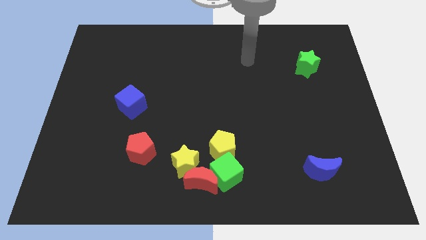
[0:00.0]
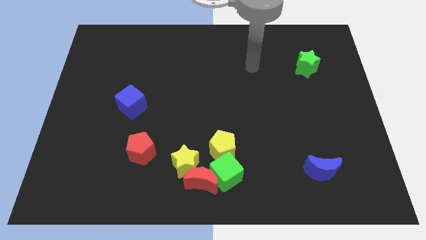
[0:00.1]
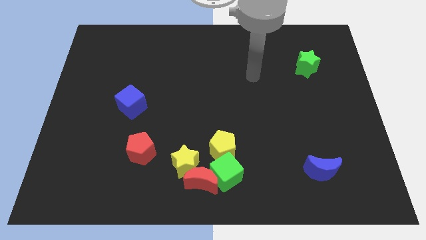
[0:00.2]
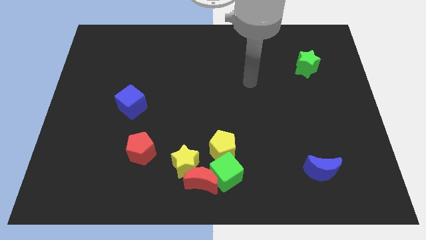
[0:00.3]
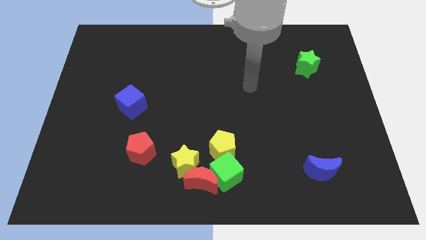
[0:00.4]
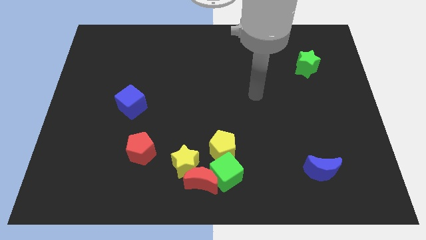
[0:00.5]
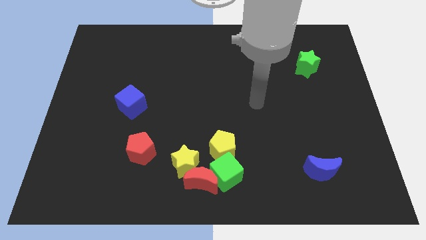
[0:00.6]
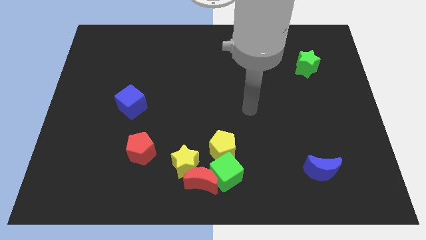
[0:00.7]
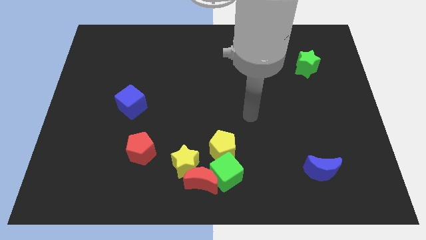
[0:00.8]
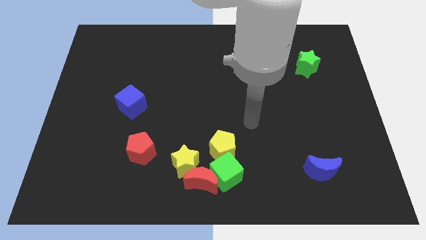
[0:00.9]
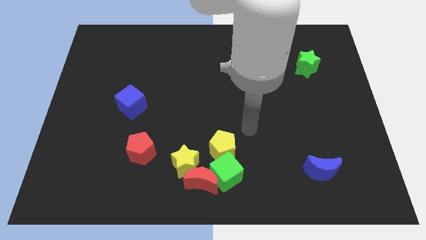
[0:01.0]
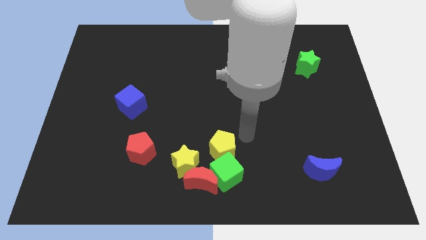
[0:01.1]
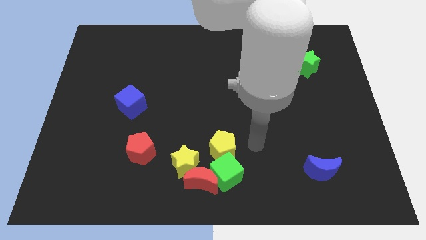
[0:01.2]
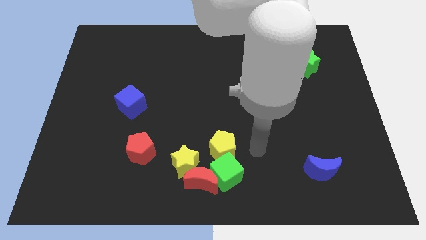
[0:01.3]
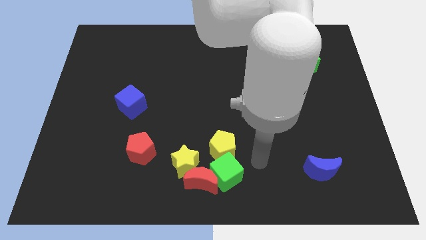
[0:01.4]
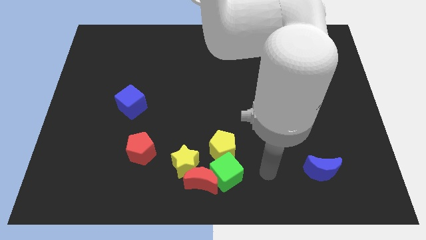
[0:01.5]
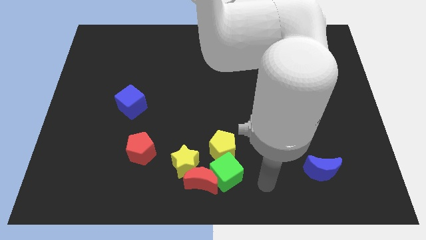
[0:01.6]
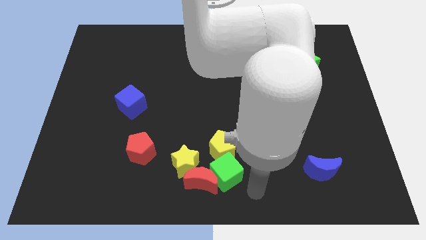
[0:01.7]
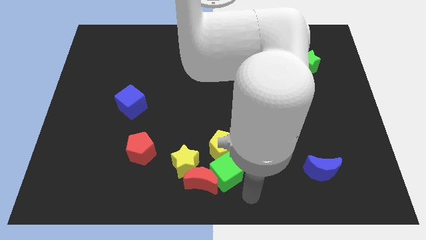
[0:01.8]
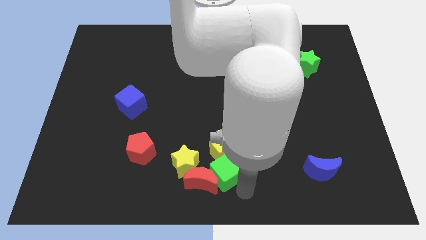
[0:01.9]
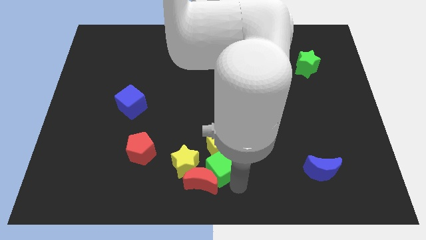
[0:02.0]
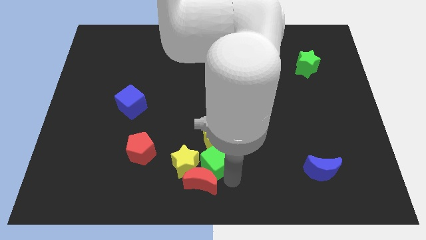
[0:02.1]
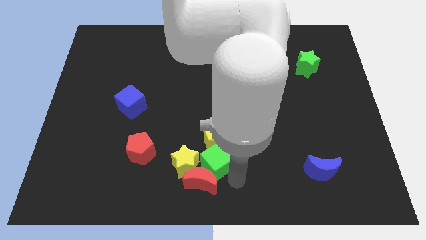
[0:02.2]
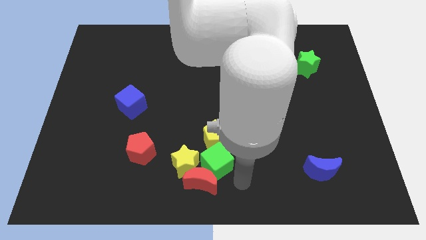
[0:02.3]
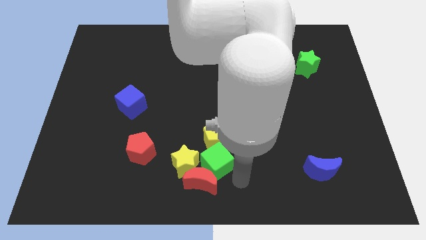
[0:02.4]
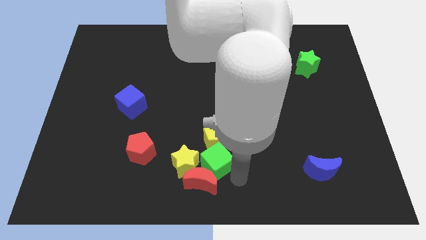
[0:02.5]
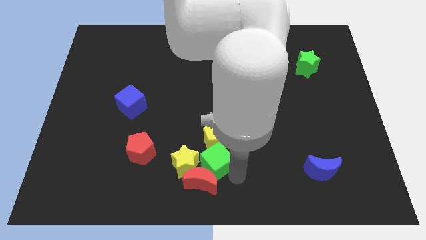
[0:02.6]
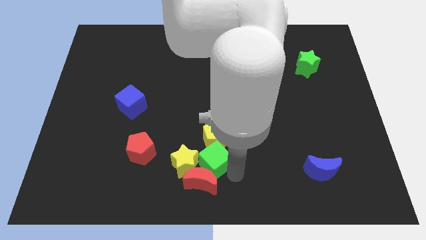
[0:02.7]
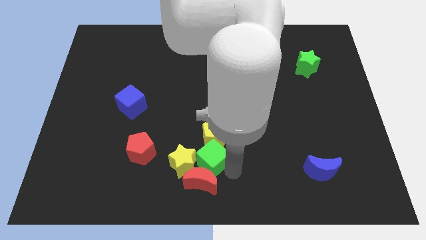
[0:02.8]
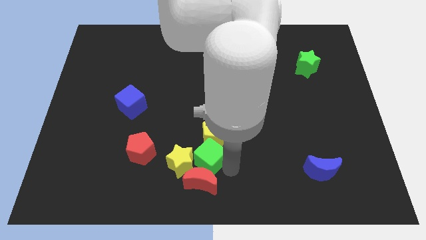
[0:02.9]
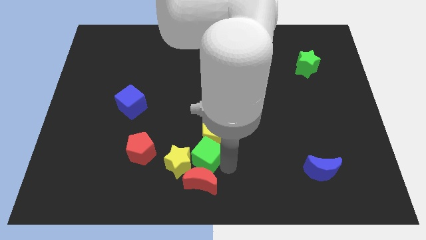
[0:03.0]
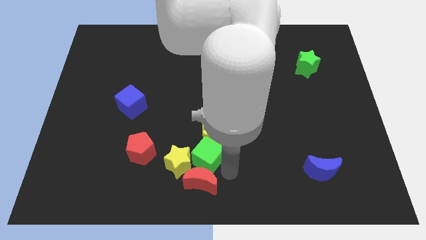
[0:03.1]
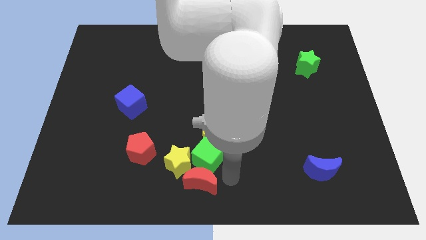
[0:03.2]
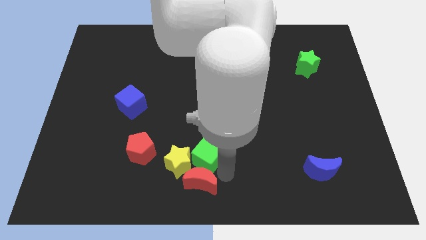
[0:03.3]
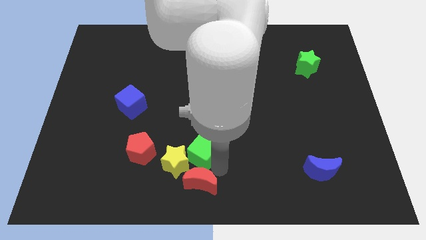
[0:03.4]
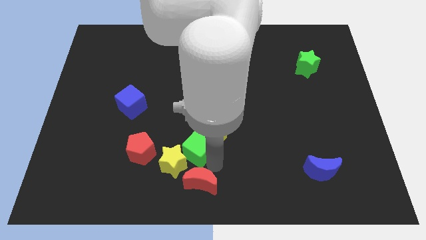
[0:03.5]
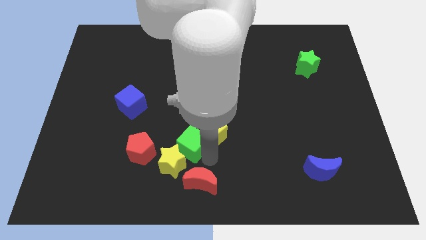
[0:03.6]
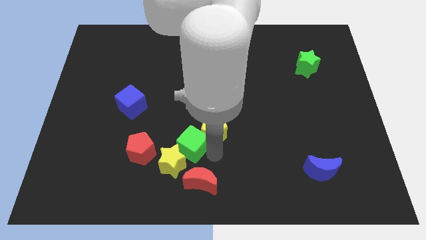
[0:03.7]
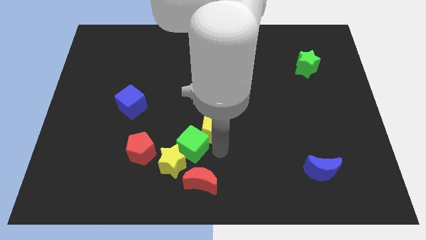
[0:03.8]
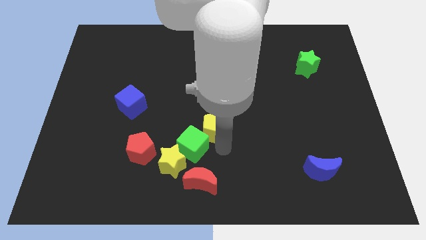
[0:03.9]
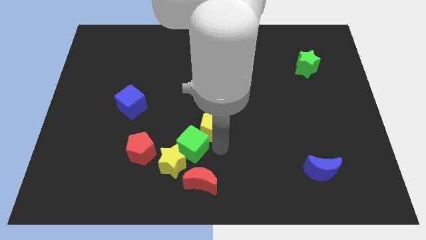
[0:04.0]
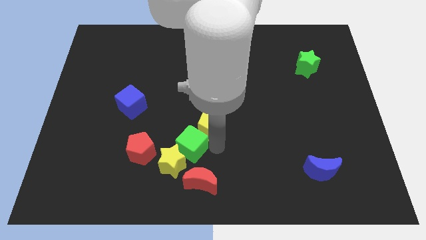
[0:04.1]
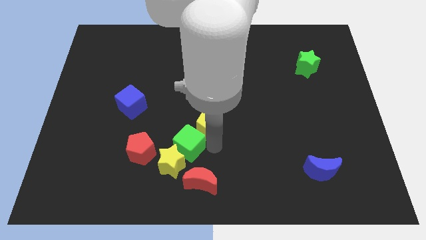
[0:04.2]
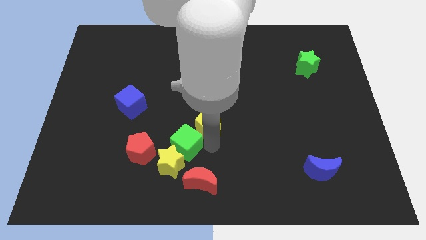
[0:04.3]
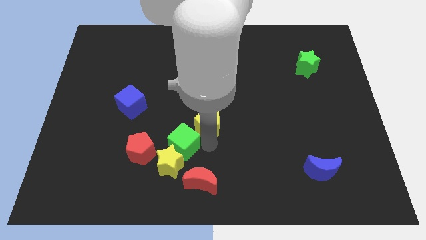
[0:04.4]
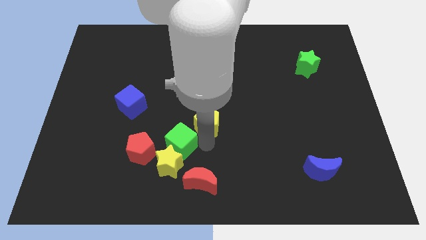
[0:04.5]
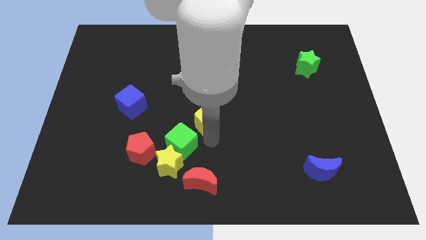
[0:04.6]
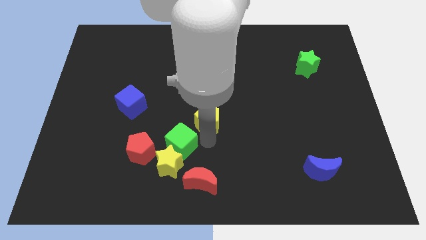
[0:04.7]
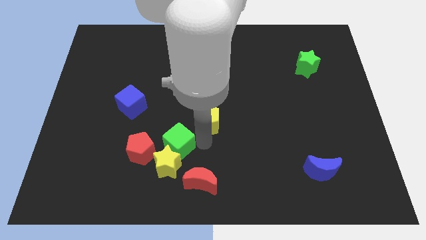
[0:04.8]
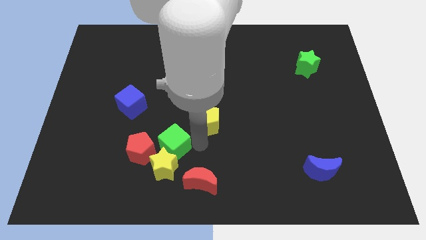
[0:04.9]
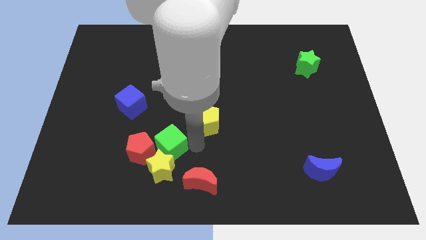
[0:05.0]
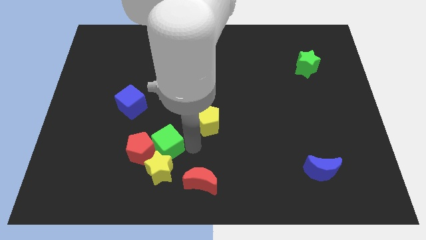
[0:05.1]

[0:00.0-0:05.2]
put the green cube towards the red pentagon

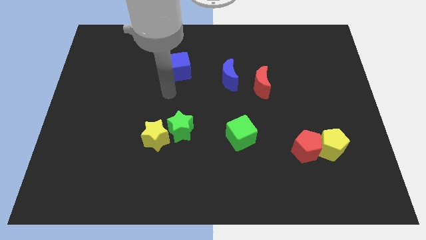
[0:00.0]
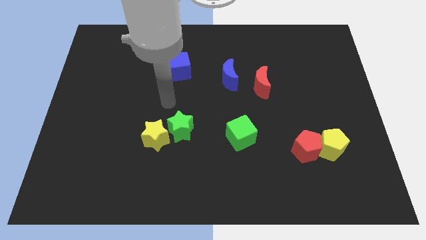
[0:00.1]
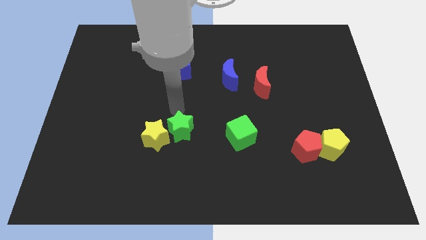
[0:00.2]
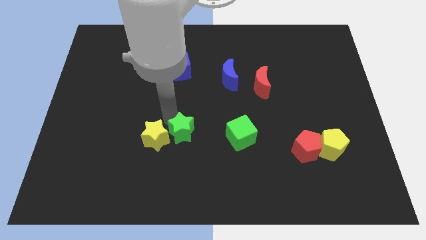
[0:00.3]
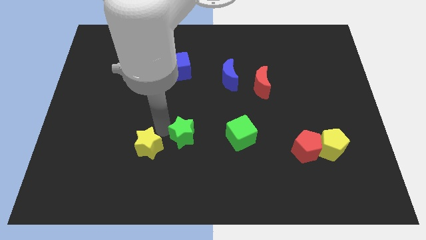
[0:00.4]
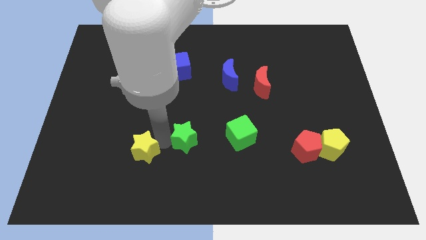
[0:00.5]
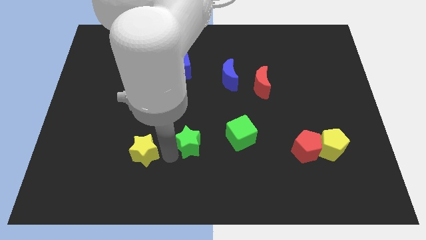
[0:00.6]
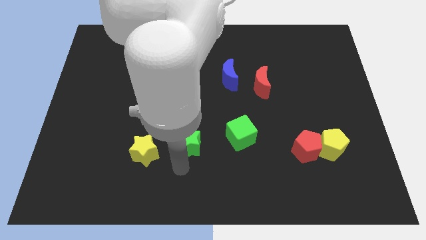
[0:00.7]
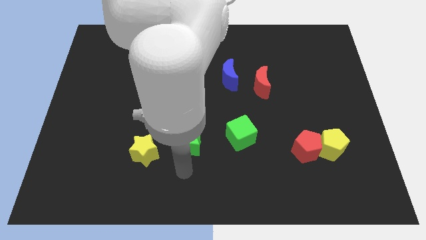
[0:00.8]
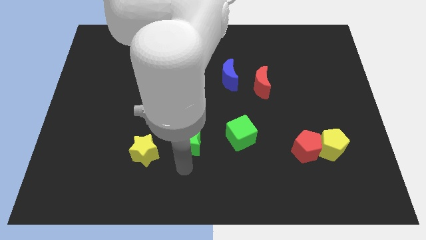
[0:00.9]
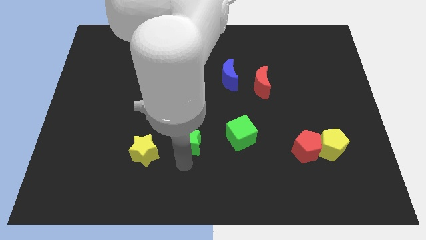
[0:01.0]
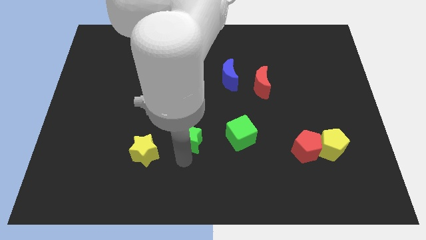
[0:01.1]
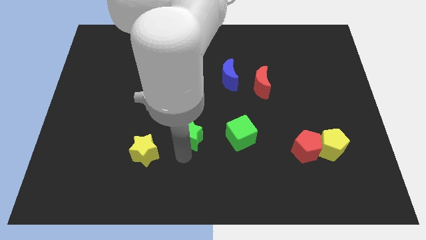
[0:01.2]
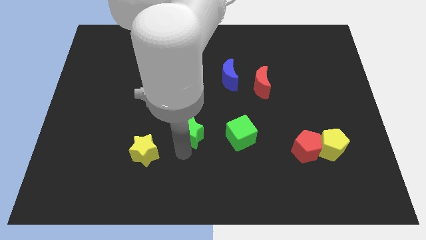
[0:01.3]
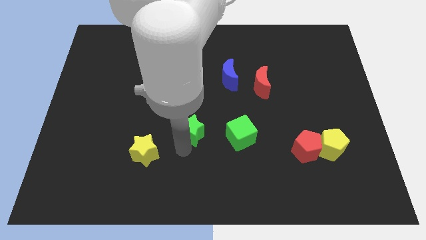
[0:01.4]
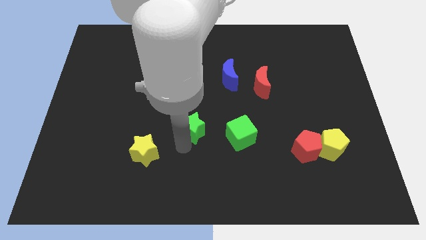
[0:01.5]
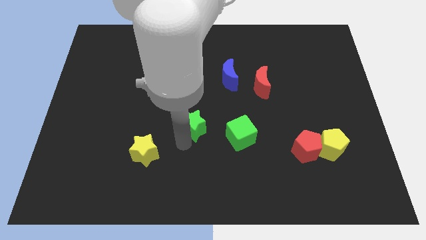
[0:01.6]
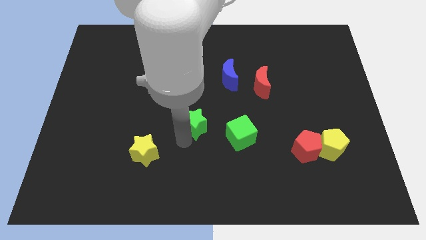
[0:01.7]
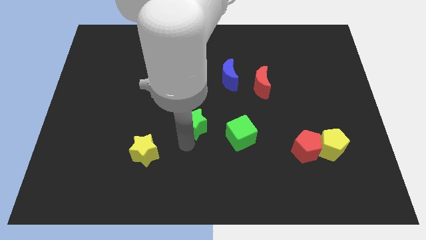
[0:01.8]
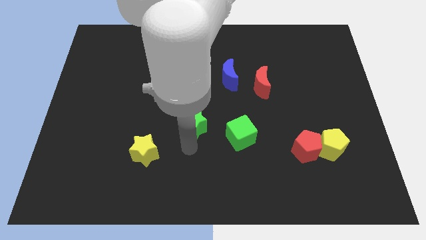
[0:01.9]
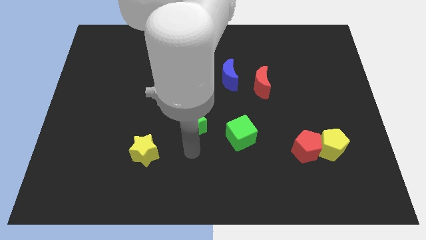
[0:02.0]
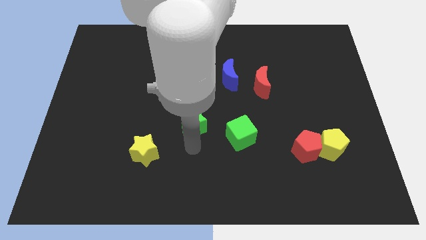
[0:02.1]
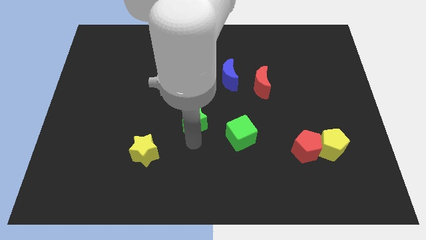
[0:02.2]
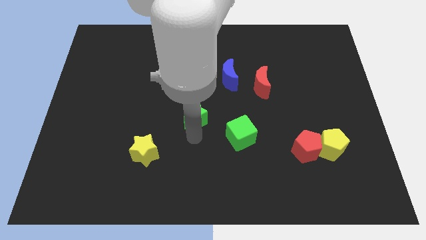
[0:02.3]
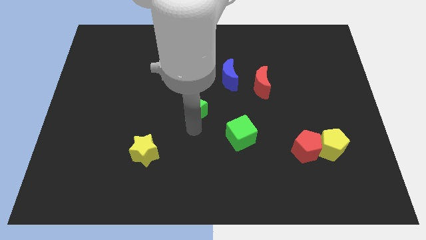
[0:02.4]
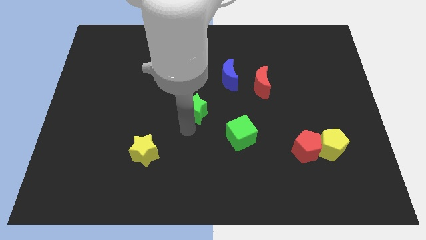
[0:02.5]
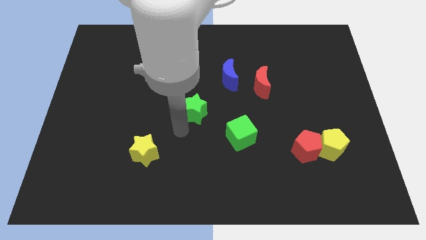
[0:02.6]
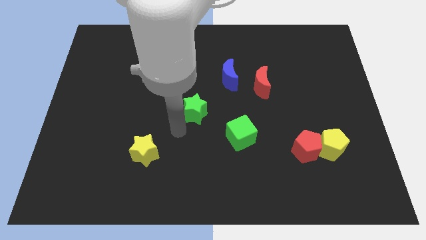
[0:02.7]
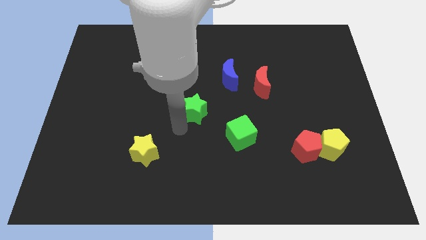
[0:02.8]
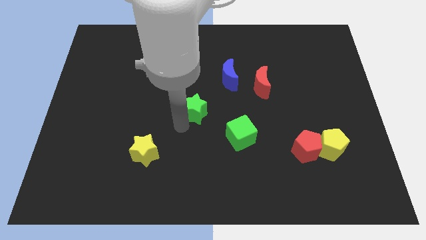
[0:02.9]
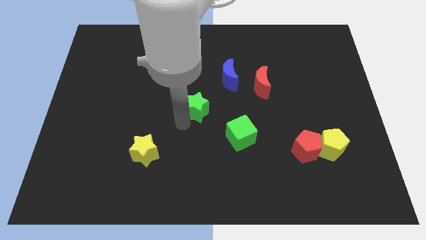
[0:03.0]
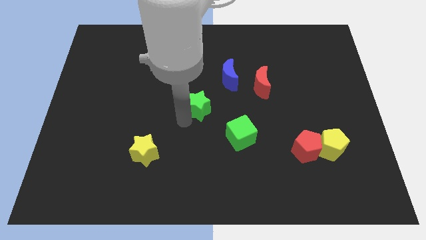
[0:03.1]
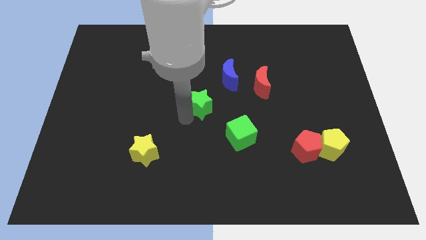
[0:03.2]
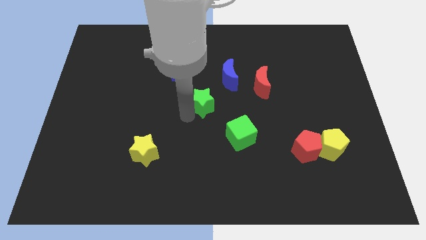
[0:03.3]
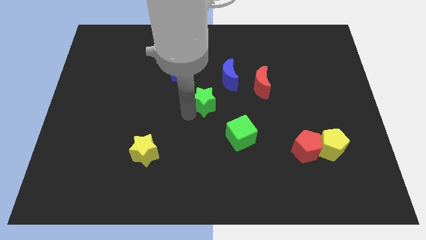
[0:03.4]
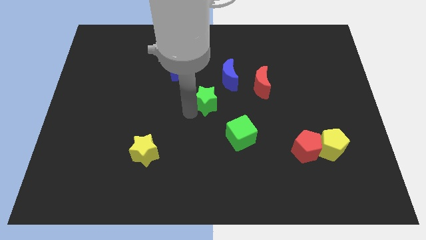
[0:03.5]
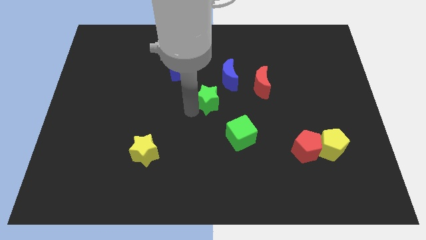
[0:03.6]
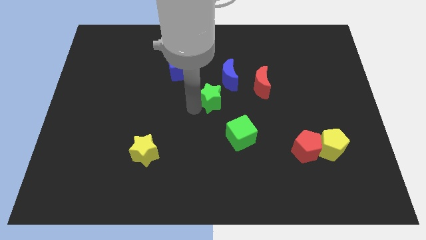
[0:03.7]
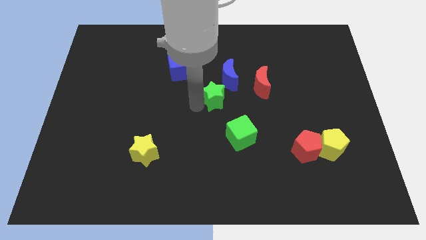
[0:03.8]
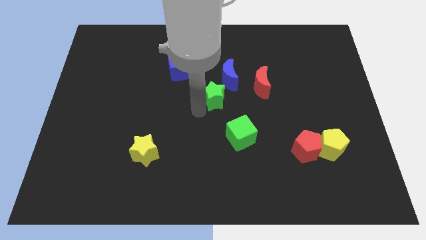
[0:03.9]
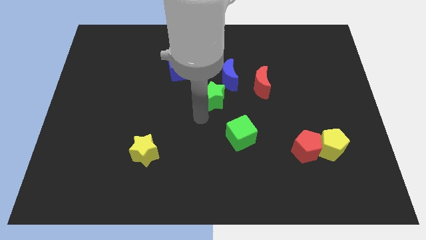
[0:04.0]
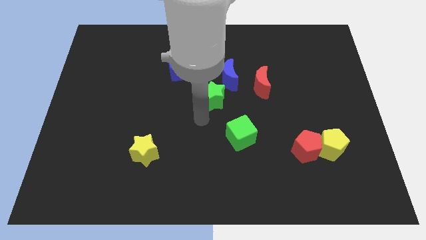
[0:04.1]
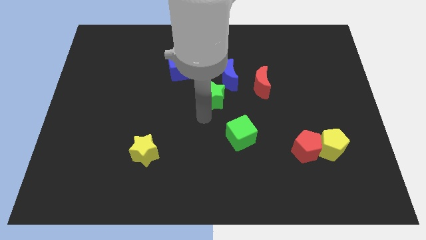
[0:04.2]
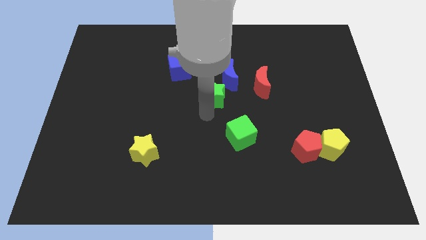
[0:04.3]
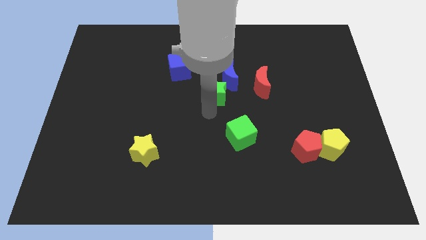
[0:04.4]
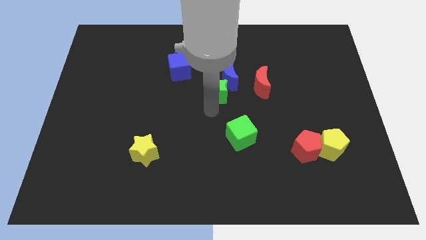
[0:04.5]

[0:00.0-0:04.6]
push the green star close to the blue moon
